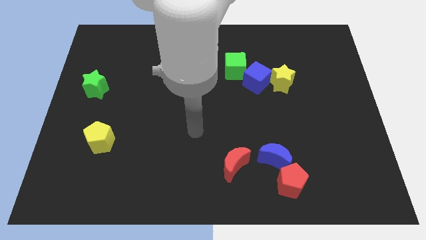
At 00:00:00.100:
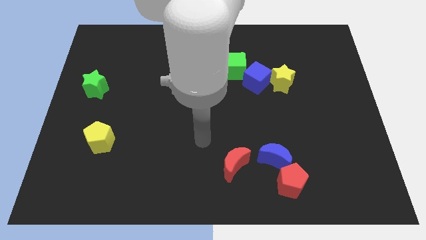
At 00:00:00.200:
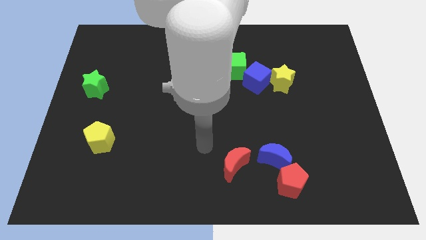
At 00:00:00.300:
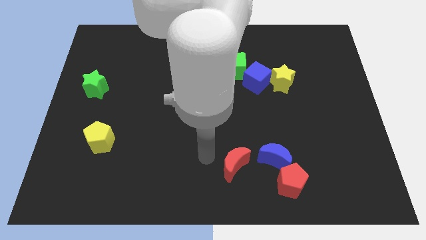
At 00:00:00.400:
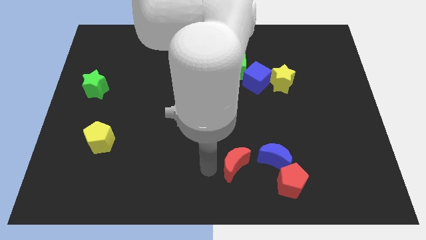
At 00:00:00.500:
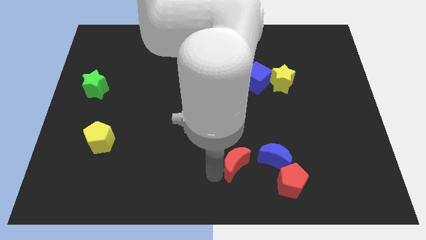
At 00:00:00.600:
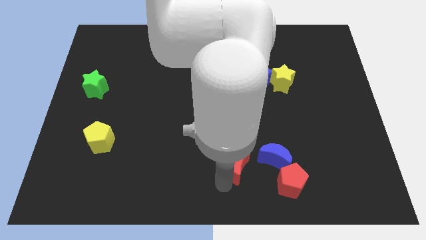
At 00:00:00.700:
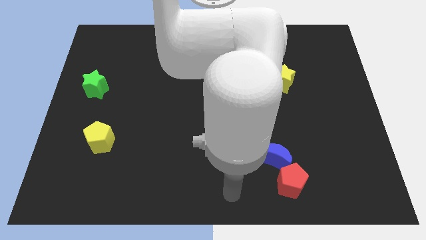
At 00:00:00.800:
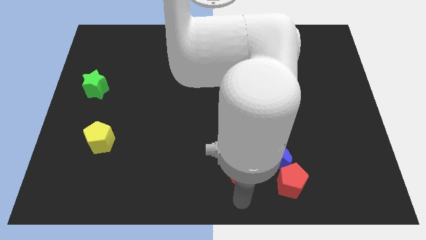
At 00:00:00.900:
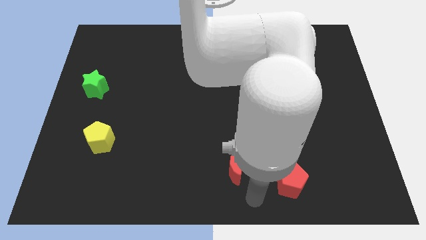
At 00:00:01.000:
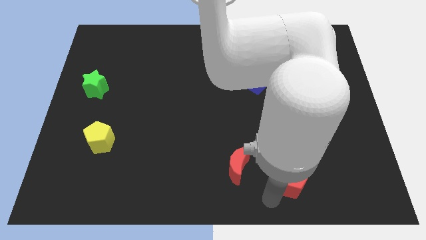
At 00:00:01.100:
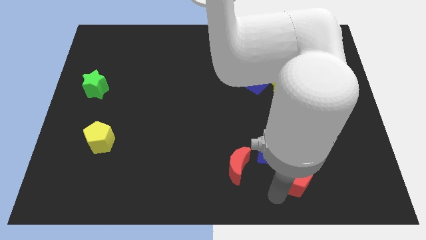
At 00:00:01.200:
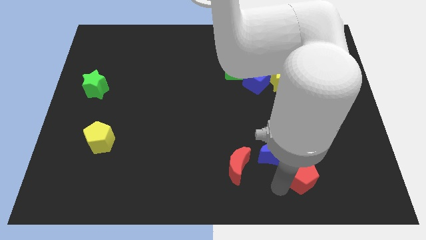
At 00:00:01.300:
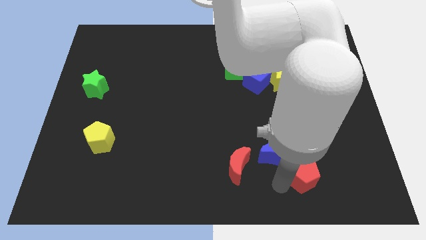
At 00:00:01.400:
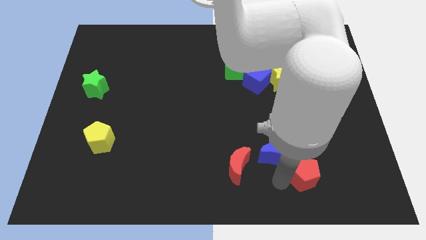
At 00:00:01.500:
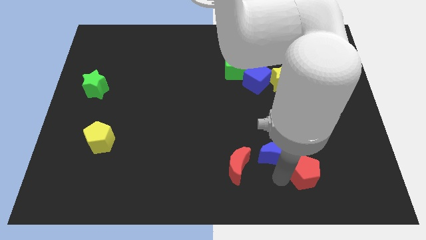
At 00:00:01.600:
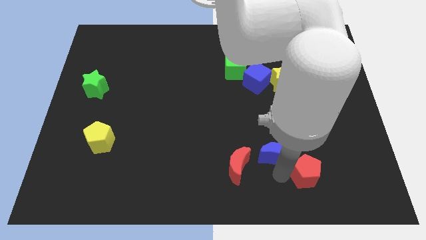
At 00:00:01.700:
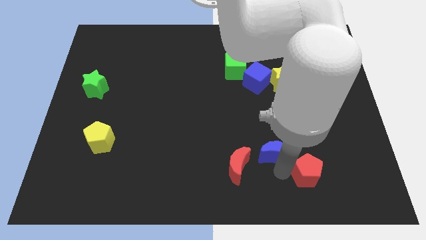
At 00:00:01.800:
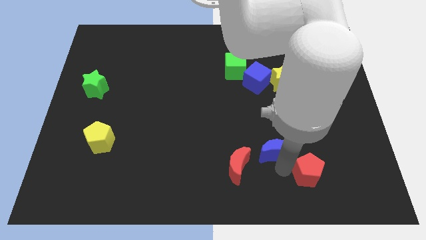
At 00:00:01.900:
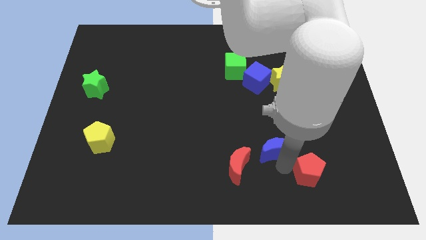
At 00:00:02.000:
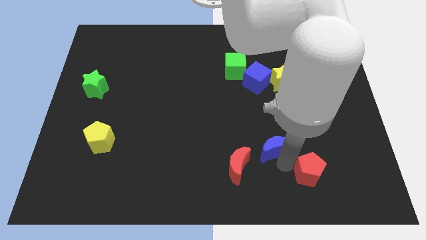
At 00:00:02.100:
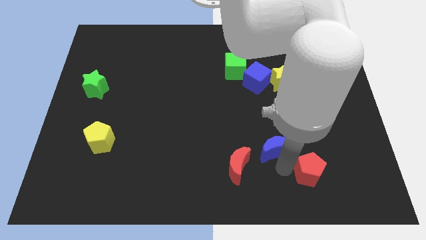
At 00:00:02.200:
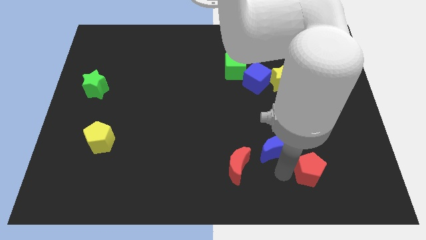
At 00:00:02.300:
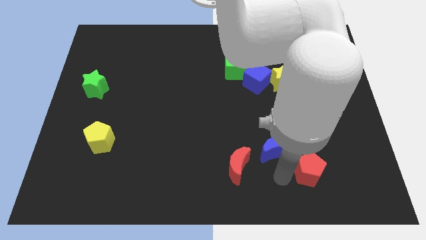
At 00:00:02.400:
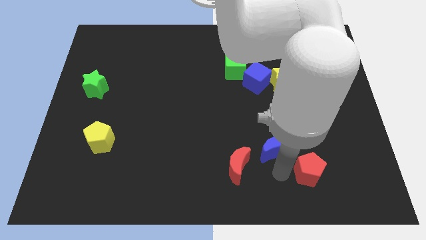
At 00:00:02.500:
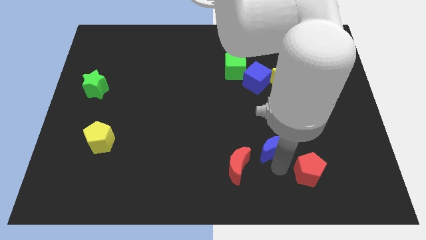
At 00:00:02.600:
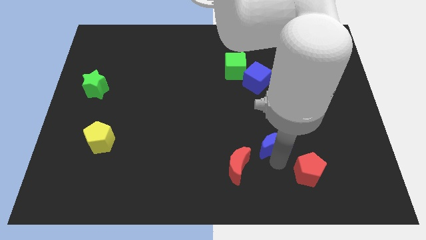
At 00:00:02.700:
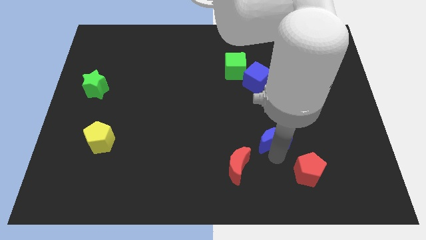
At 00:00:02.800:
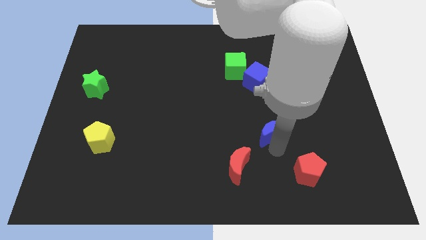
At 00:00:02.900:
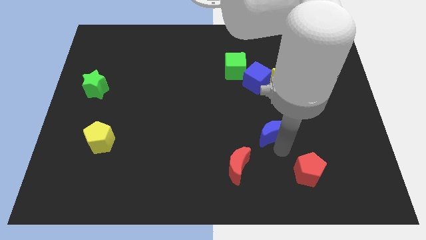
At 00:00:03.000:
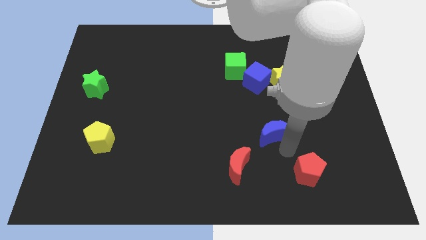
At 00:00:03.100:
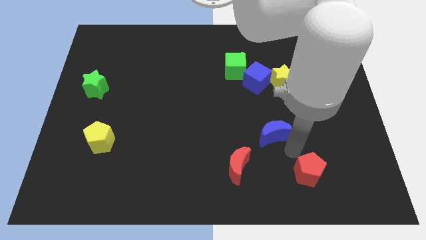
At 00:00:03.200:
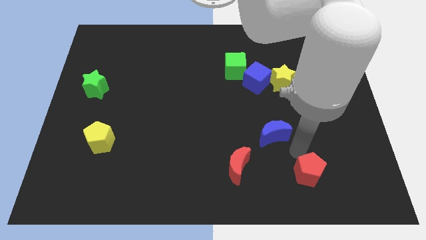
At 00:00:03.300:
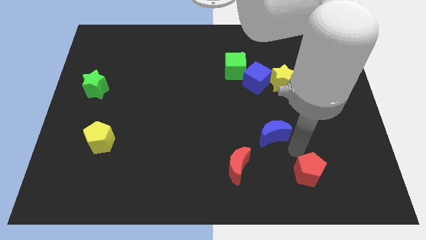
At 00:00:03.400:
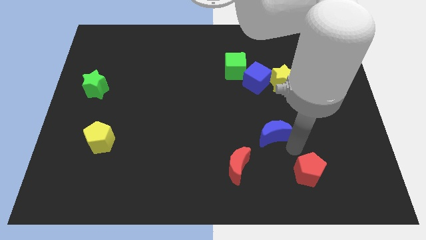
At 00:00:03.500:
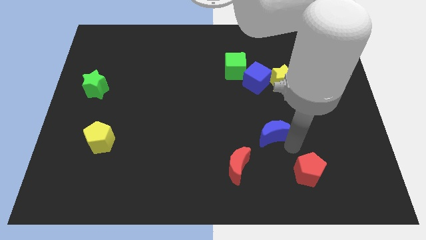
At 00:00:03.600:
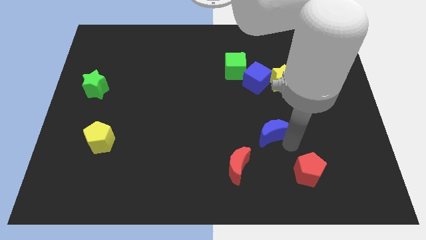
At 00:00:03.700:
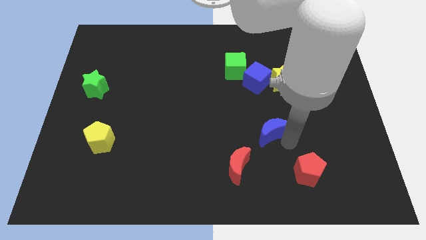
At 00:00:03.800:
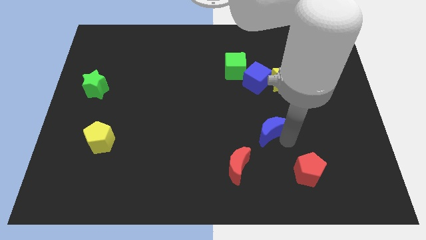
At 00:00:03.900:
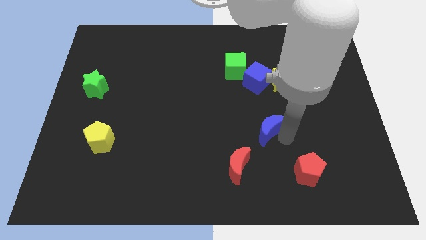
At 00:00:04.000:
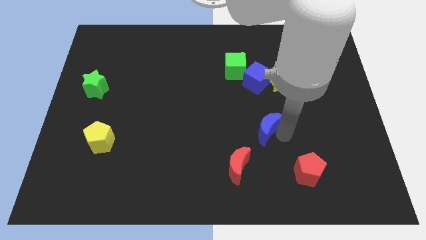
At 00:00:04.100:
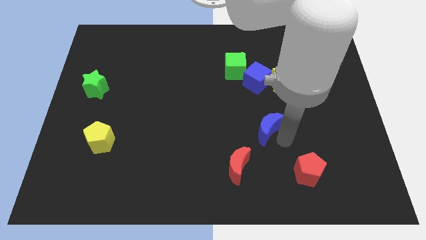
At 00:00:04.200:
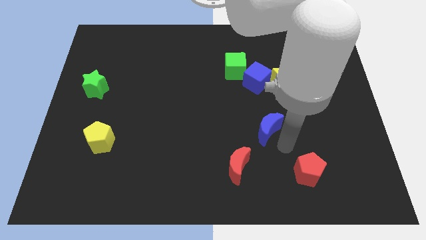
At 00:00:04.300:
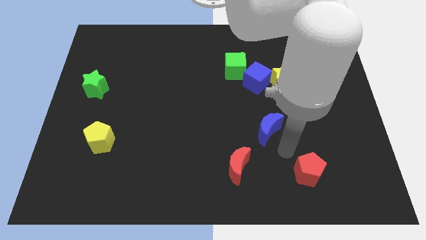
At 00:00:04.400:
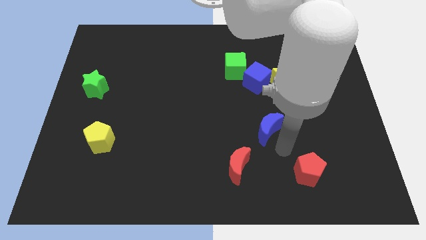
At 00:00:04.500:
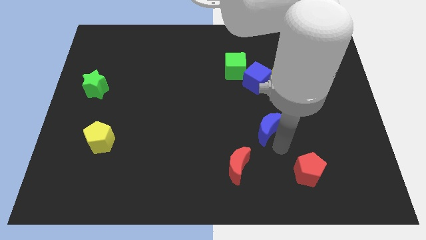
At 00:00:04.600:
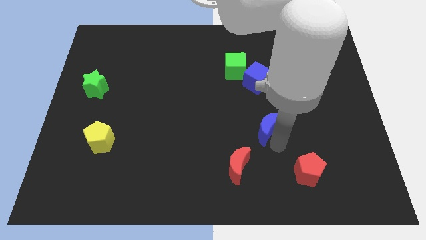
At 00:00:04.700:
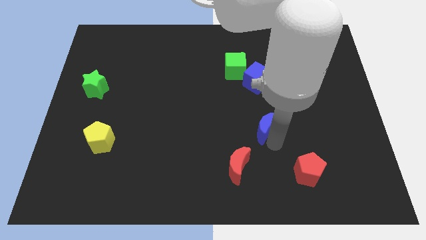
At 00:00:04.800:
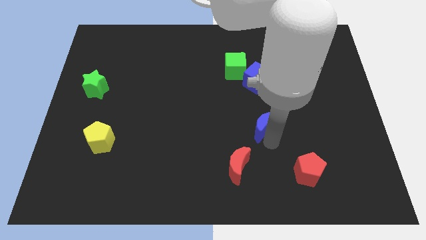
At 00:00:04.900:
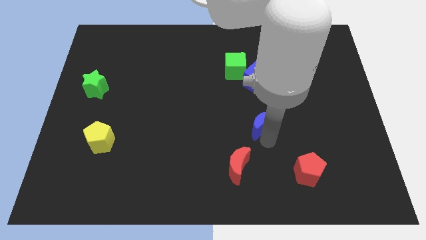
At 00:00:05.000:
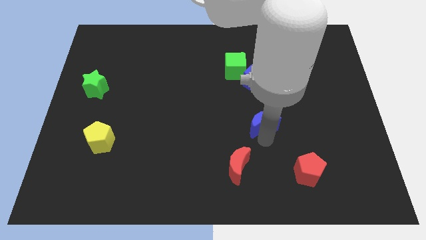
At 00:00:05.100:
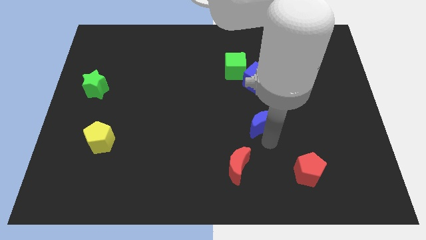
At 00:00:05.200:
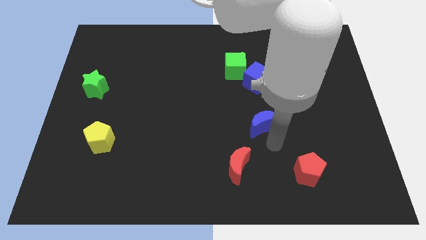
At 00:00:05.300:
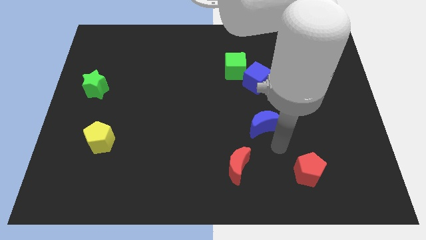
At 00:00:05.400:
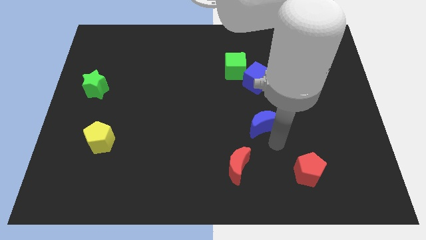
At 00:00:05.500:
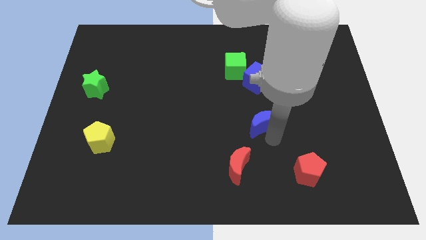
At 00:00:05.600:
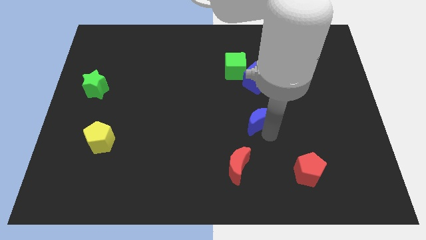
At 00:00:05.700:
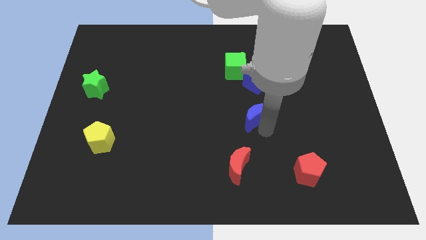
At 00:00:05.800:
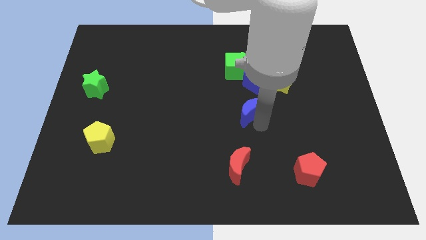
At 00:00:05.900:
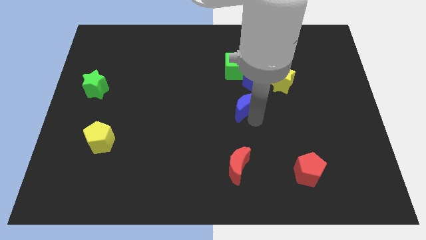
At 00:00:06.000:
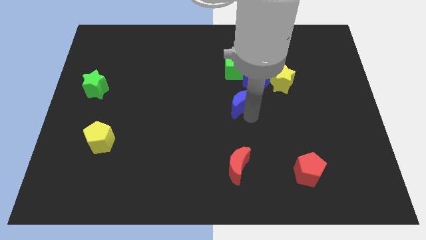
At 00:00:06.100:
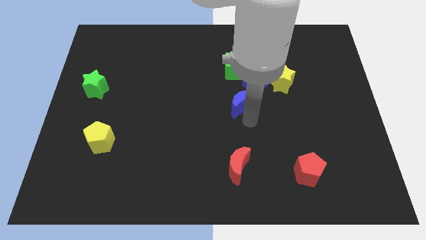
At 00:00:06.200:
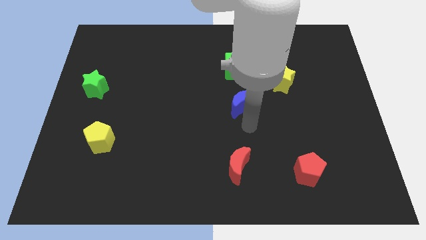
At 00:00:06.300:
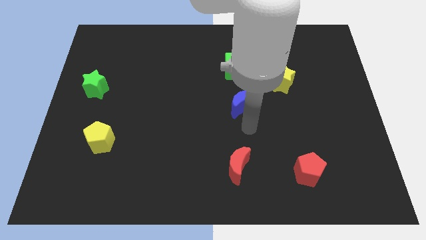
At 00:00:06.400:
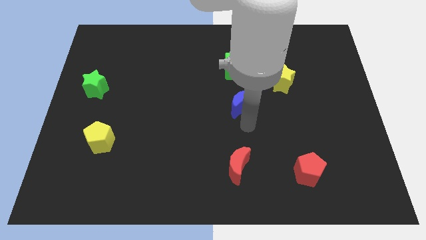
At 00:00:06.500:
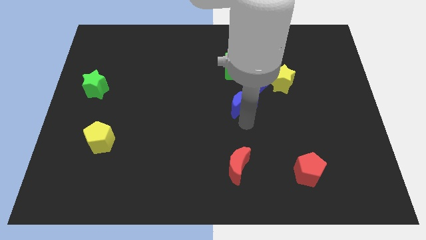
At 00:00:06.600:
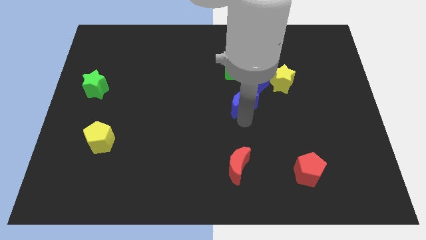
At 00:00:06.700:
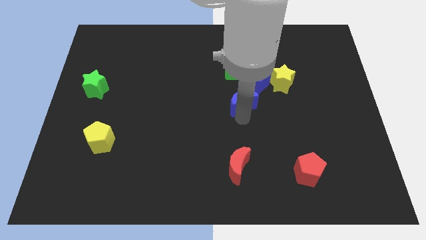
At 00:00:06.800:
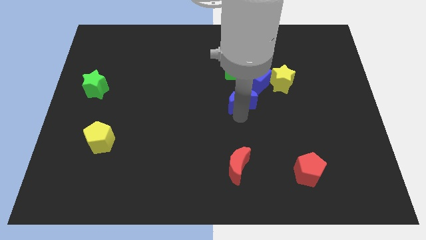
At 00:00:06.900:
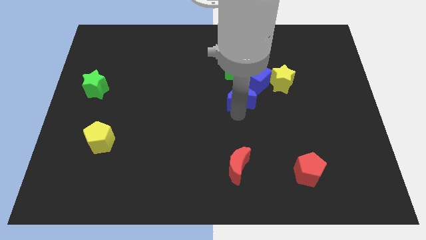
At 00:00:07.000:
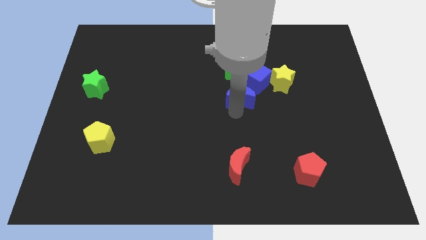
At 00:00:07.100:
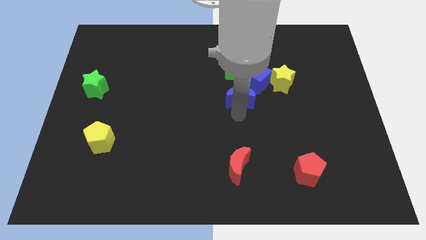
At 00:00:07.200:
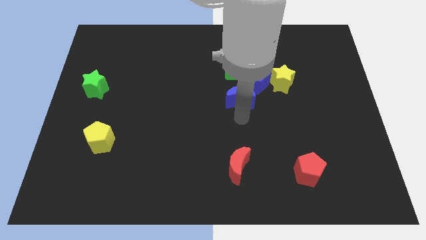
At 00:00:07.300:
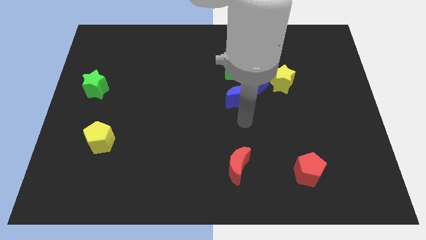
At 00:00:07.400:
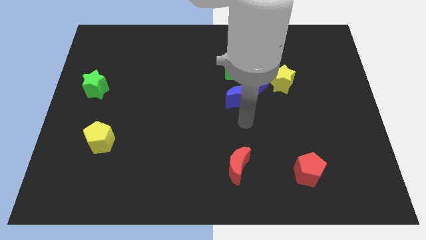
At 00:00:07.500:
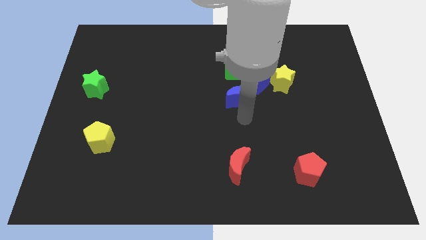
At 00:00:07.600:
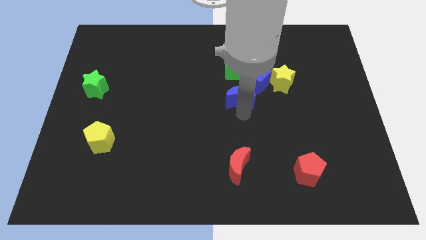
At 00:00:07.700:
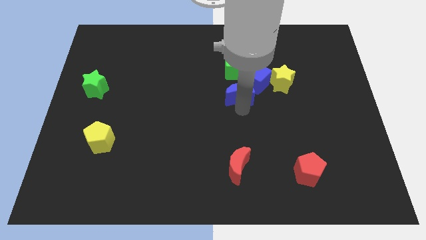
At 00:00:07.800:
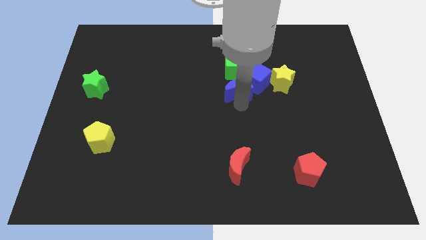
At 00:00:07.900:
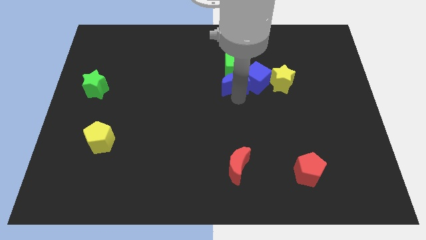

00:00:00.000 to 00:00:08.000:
put the blue moon close to the green cube
